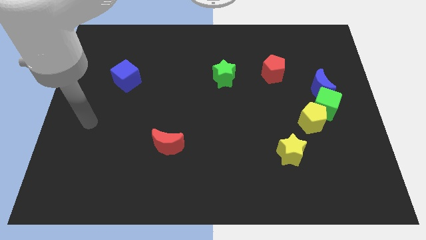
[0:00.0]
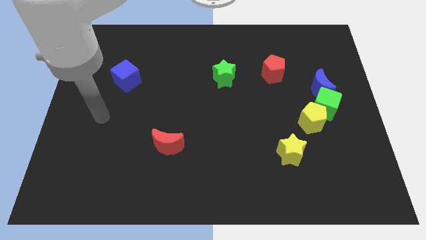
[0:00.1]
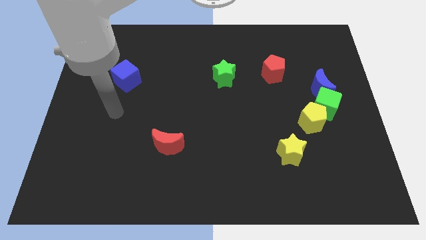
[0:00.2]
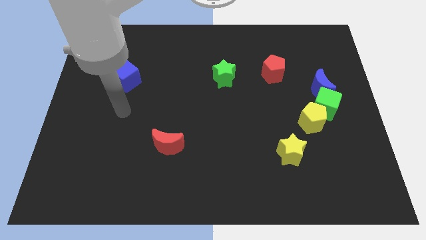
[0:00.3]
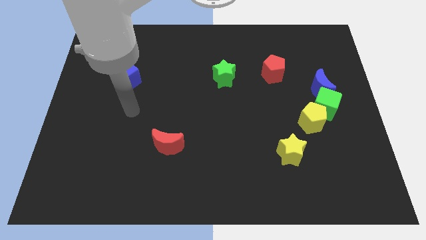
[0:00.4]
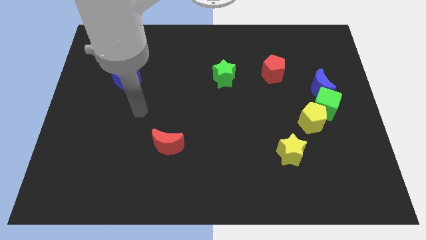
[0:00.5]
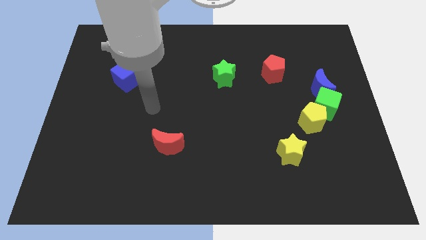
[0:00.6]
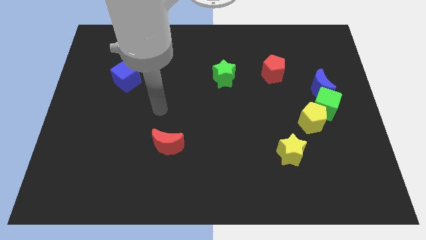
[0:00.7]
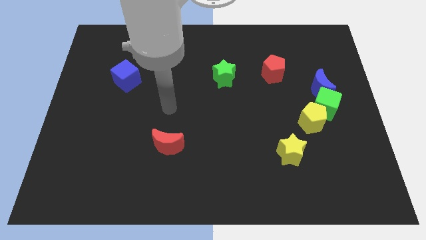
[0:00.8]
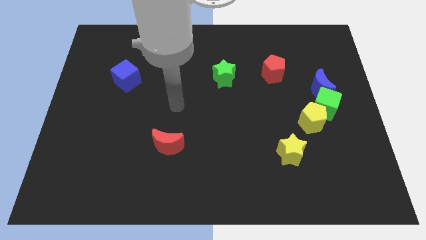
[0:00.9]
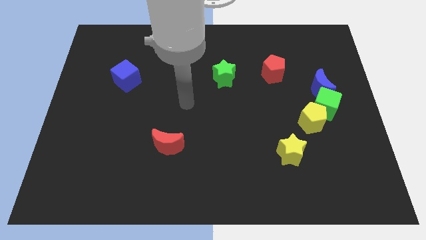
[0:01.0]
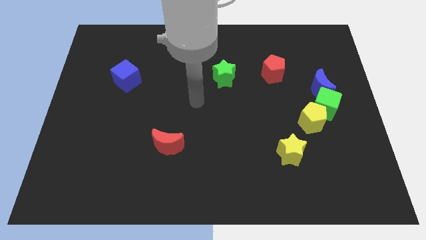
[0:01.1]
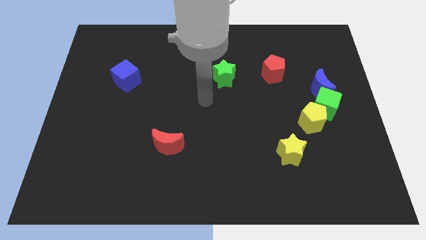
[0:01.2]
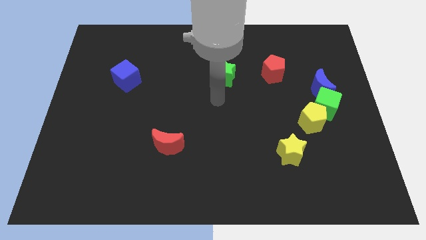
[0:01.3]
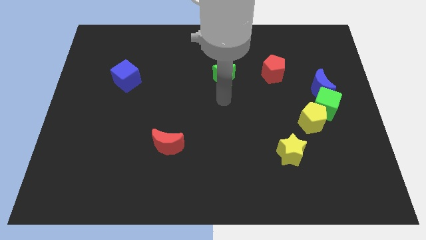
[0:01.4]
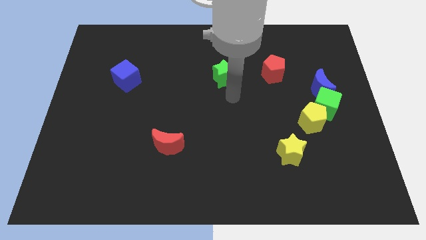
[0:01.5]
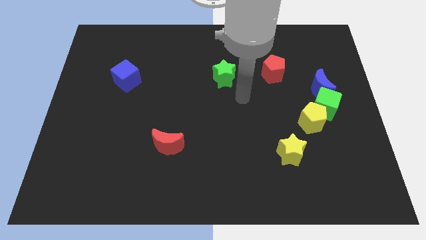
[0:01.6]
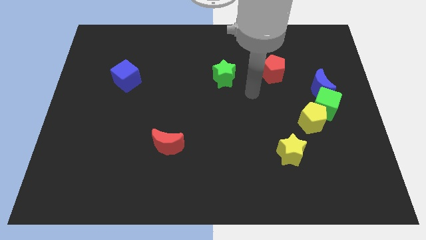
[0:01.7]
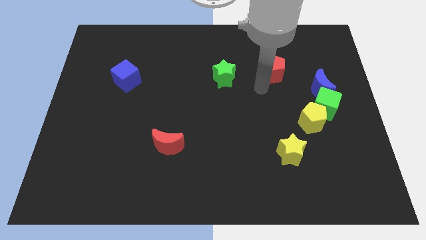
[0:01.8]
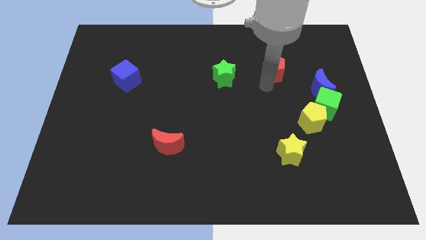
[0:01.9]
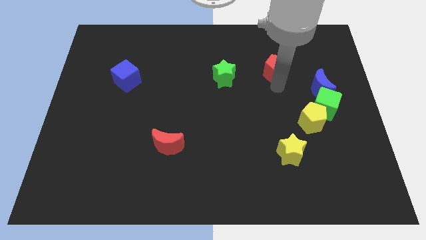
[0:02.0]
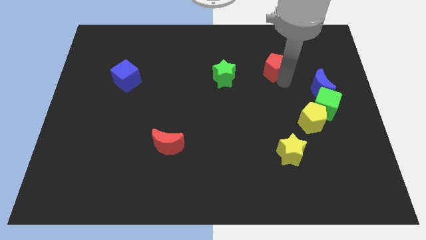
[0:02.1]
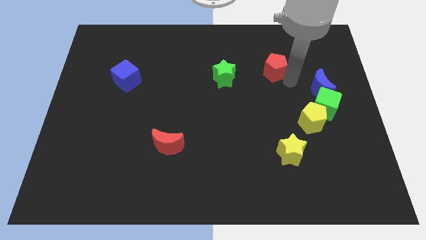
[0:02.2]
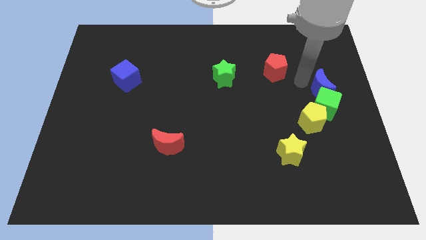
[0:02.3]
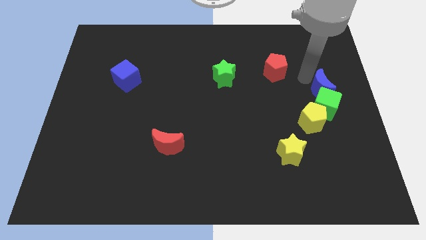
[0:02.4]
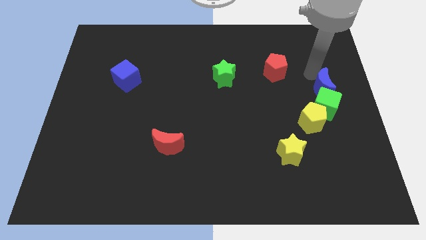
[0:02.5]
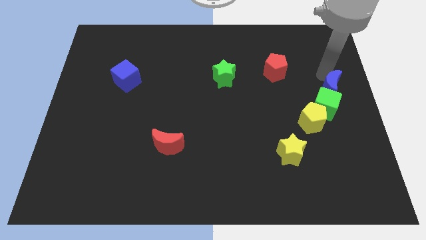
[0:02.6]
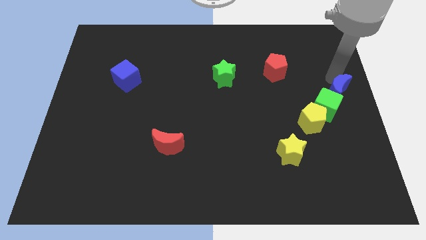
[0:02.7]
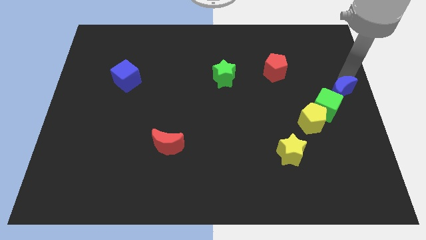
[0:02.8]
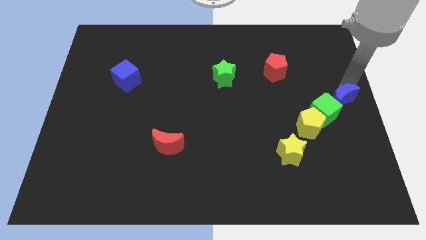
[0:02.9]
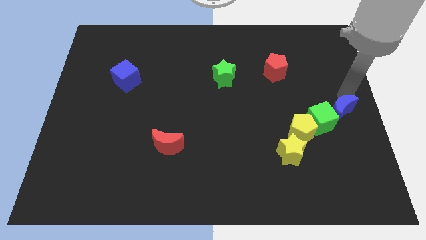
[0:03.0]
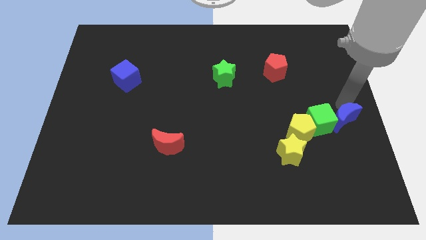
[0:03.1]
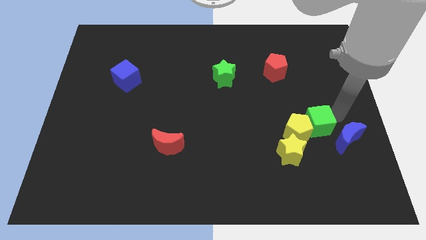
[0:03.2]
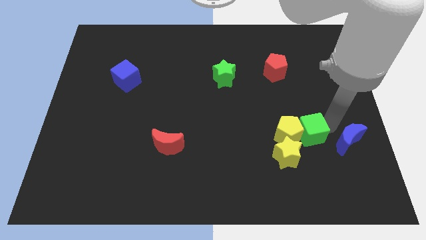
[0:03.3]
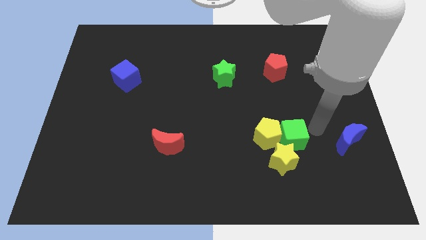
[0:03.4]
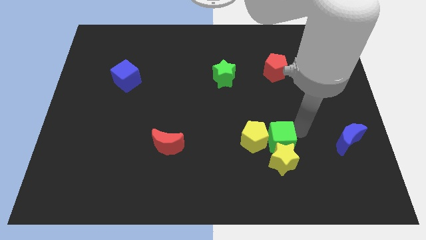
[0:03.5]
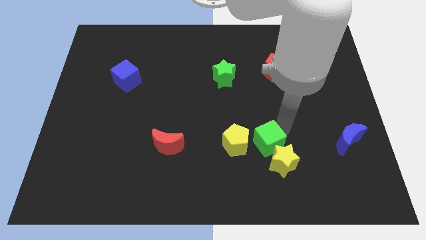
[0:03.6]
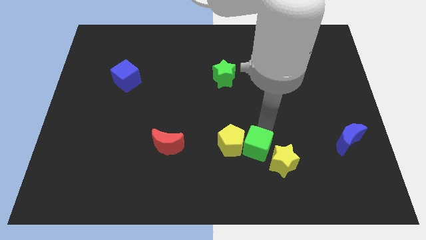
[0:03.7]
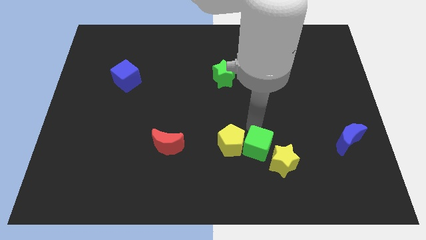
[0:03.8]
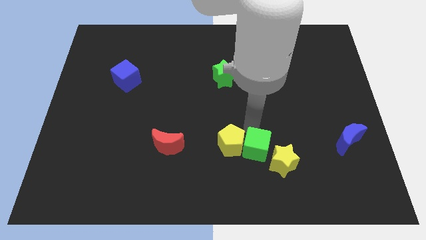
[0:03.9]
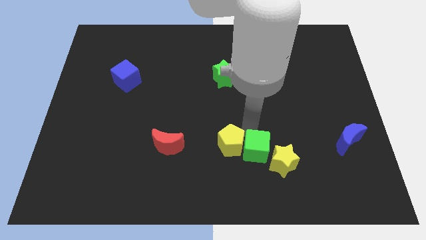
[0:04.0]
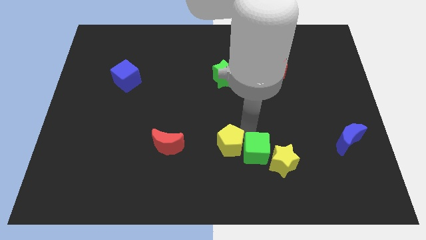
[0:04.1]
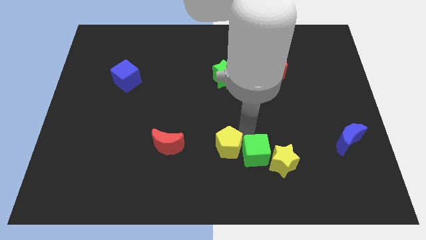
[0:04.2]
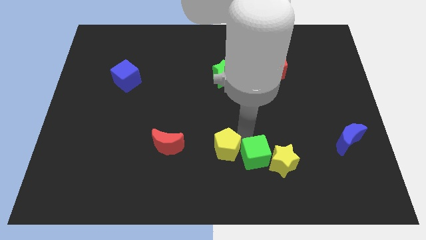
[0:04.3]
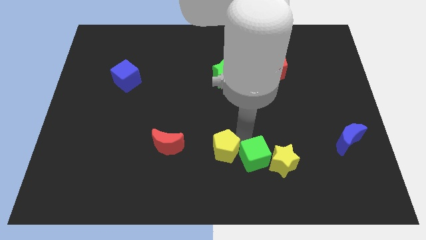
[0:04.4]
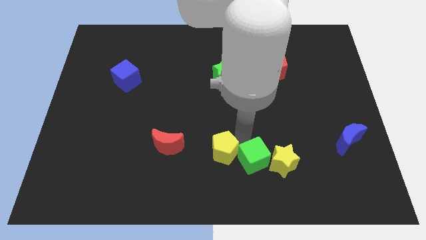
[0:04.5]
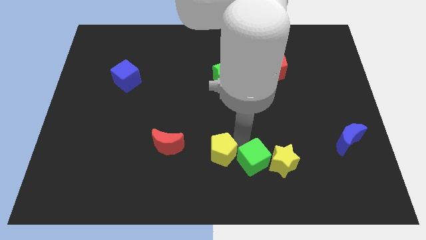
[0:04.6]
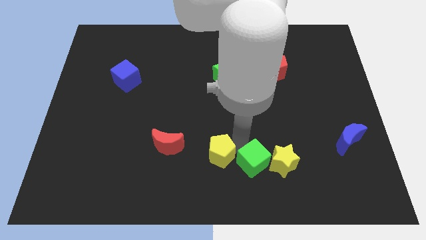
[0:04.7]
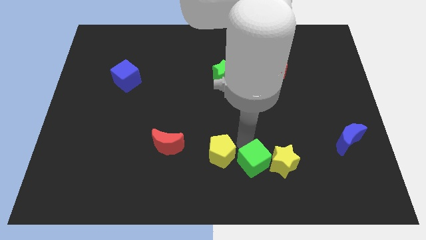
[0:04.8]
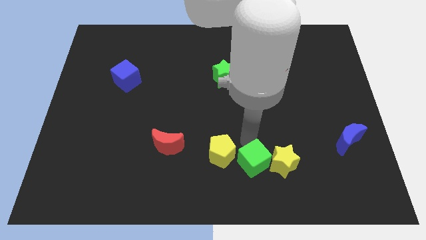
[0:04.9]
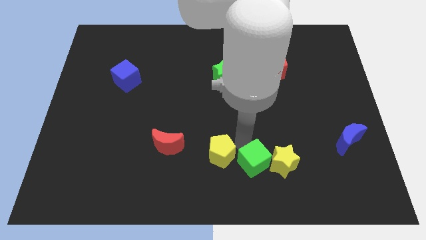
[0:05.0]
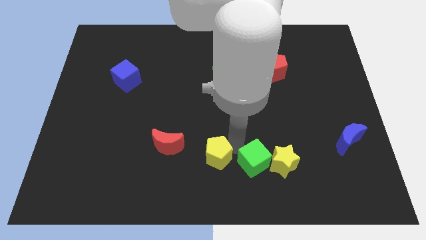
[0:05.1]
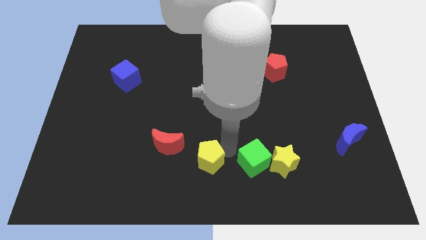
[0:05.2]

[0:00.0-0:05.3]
slide the yellow pentagon to the bottom right side of the red moon

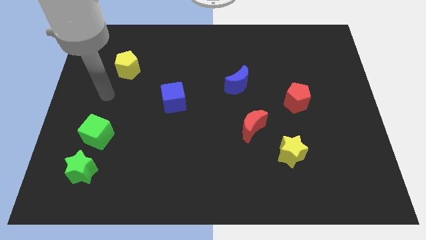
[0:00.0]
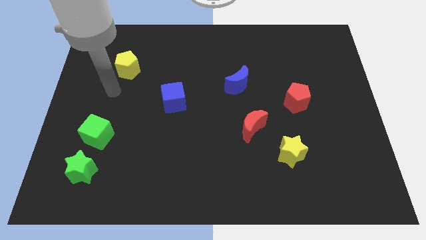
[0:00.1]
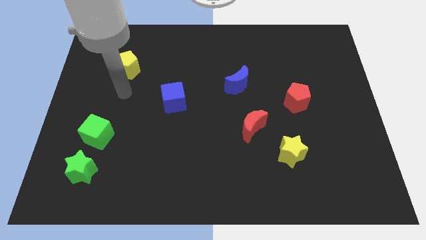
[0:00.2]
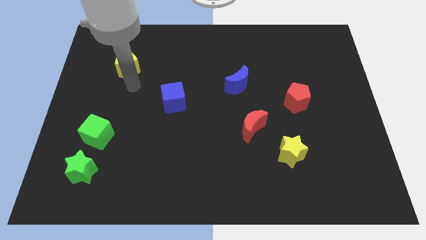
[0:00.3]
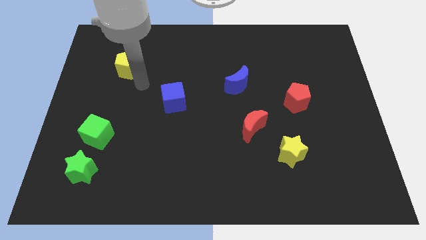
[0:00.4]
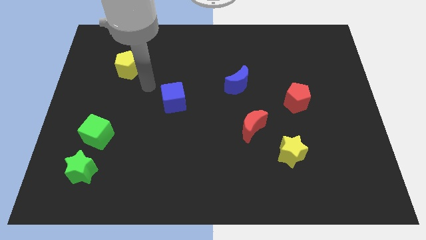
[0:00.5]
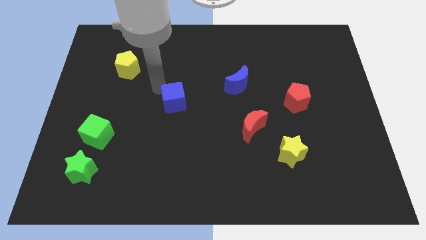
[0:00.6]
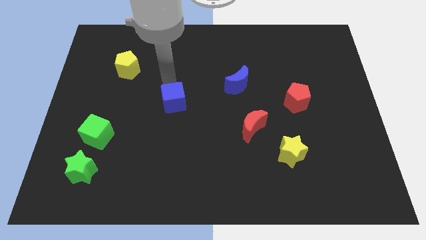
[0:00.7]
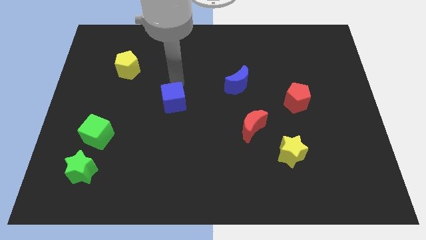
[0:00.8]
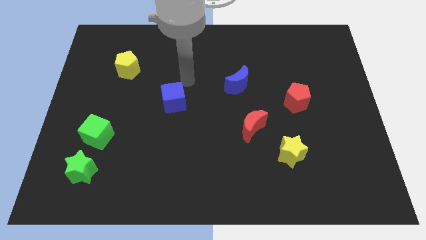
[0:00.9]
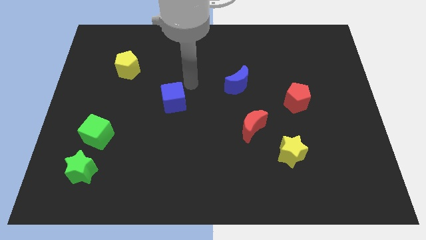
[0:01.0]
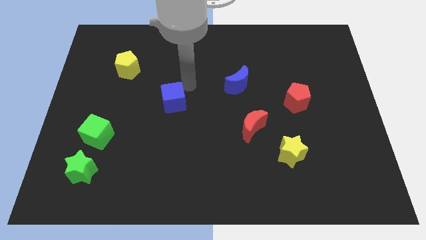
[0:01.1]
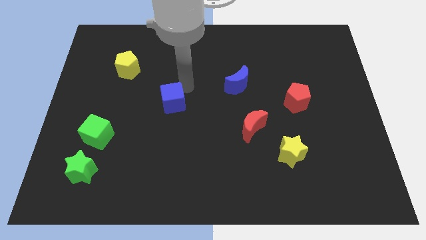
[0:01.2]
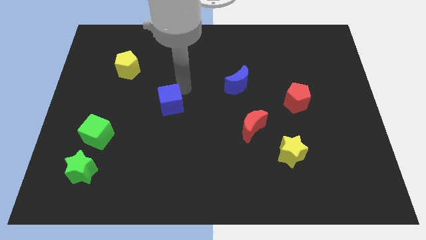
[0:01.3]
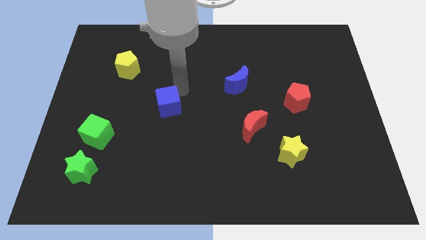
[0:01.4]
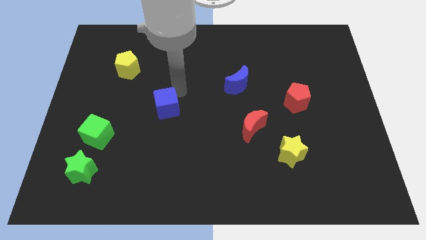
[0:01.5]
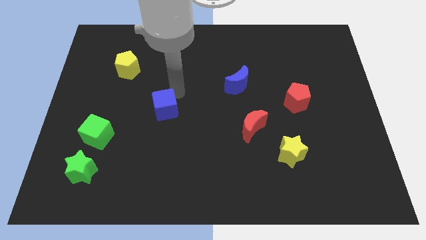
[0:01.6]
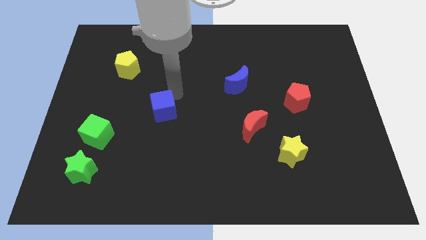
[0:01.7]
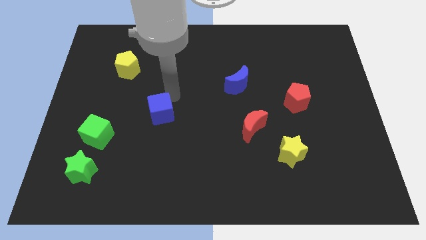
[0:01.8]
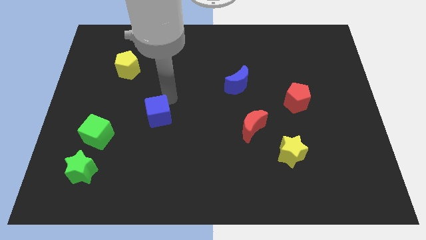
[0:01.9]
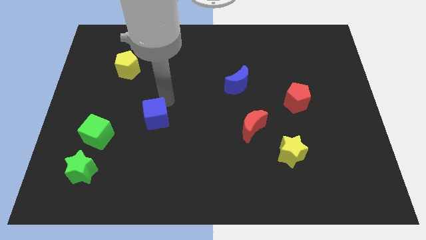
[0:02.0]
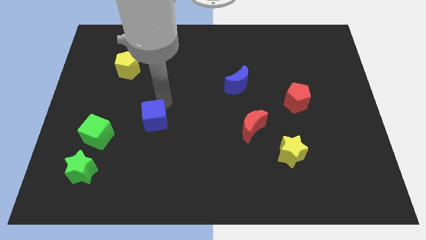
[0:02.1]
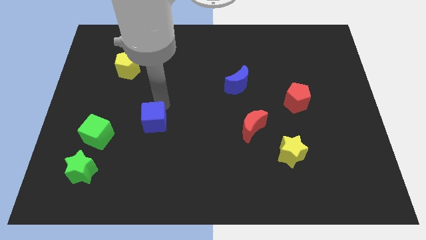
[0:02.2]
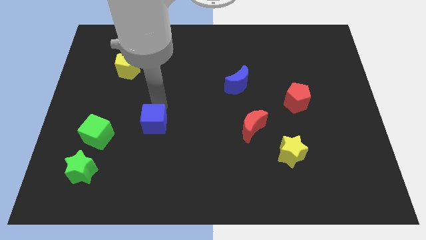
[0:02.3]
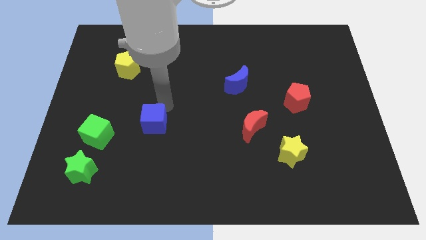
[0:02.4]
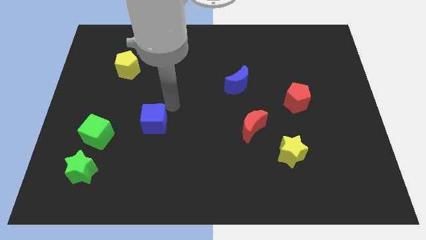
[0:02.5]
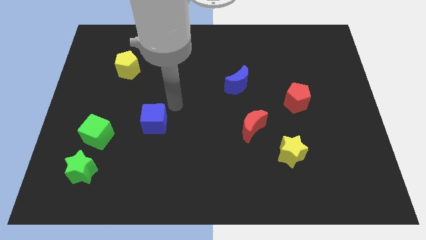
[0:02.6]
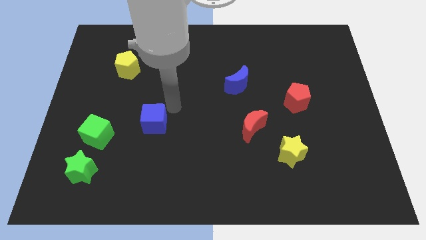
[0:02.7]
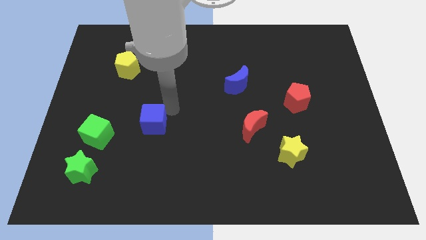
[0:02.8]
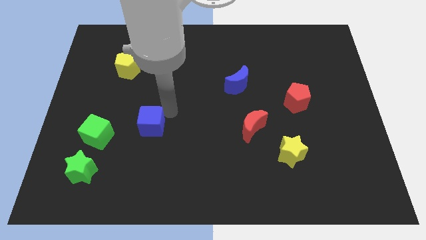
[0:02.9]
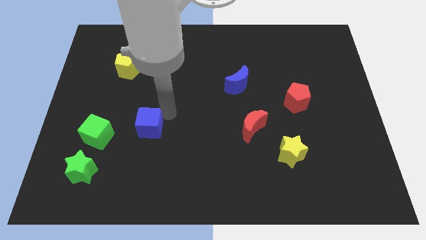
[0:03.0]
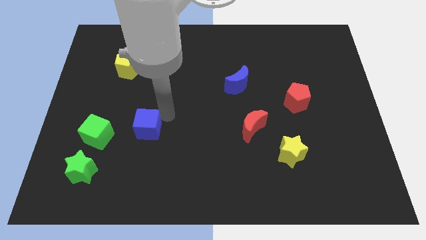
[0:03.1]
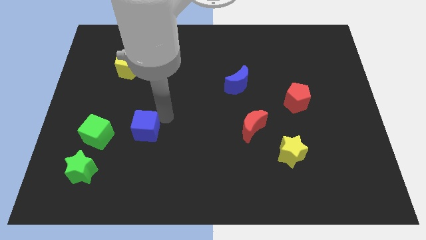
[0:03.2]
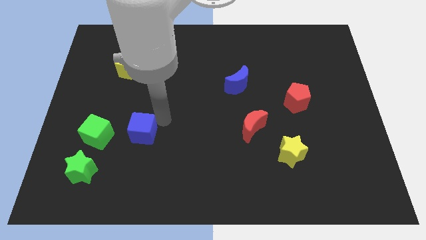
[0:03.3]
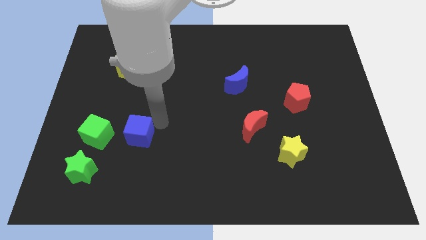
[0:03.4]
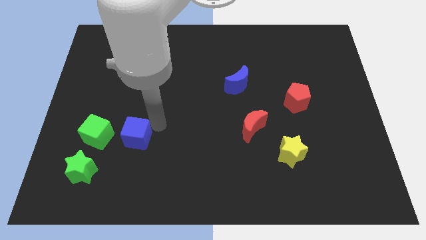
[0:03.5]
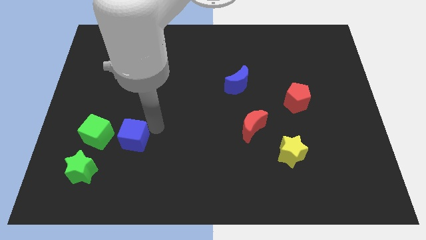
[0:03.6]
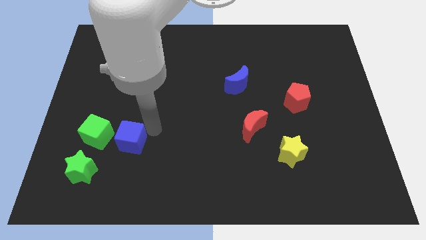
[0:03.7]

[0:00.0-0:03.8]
put the blue cube diagonally down and to the right of the green cube
